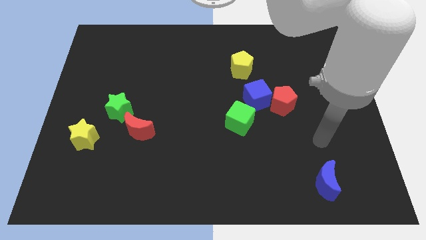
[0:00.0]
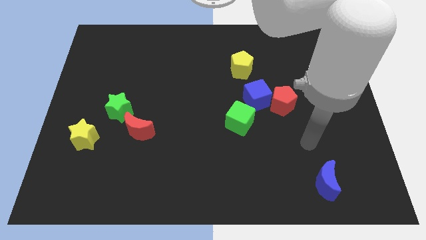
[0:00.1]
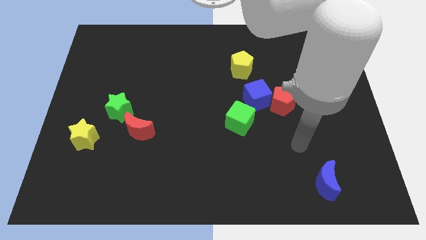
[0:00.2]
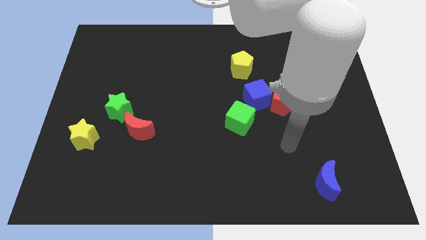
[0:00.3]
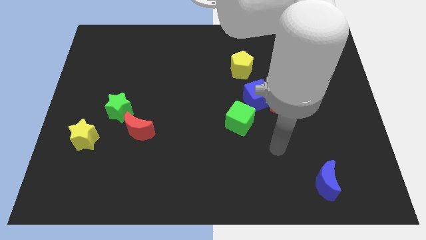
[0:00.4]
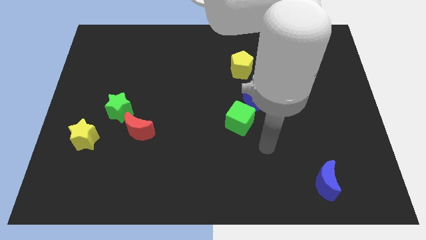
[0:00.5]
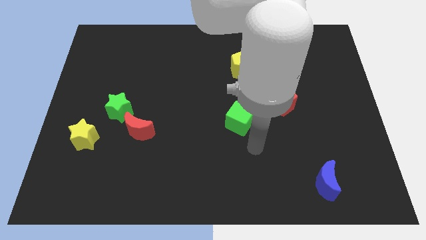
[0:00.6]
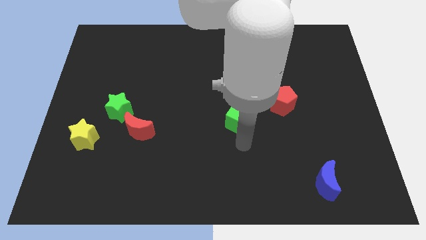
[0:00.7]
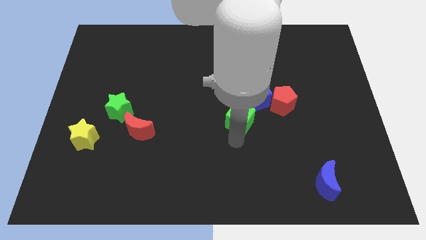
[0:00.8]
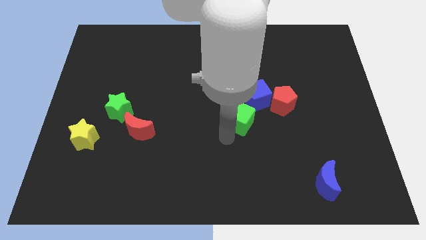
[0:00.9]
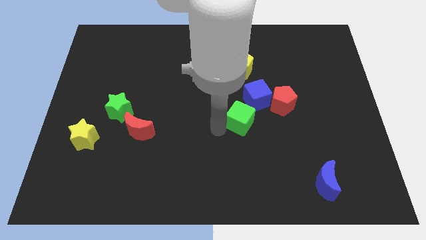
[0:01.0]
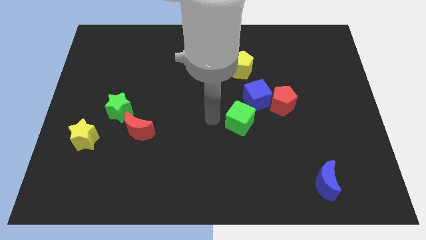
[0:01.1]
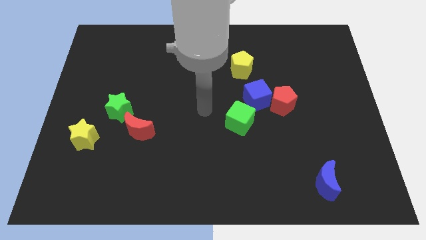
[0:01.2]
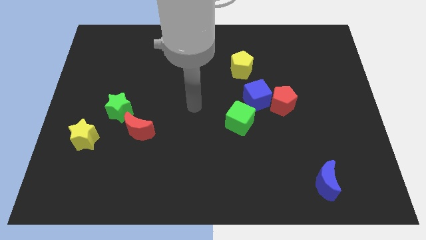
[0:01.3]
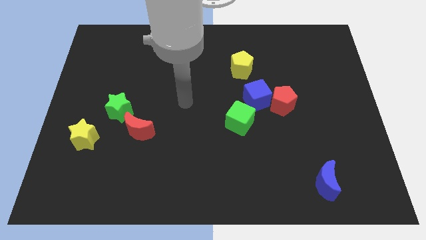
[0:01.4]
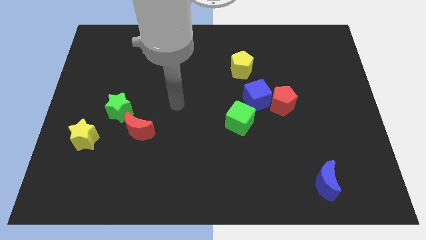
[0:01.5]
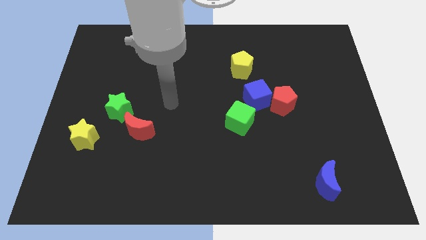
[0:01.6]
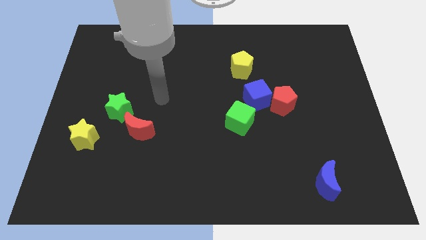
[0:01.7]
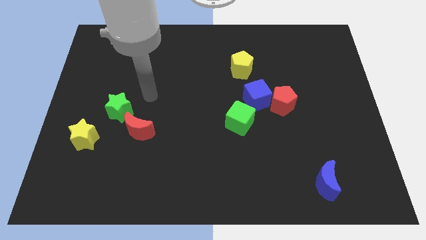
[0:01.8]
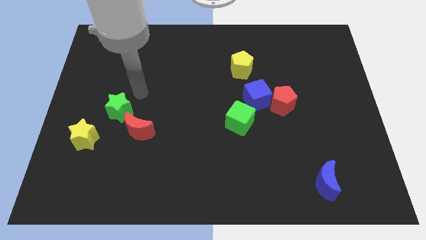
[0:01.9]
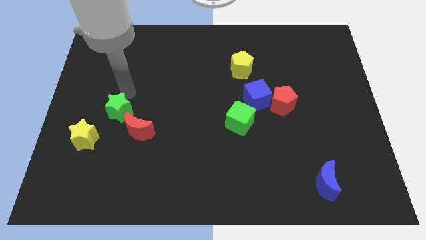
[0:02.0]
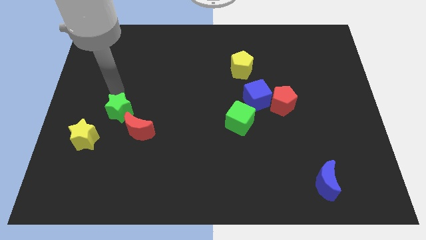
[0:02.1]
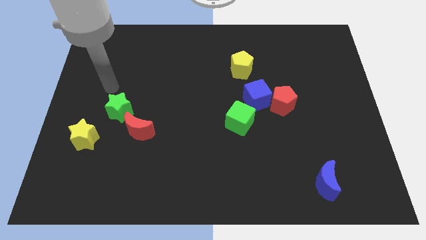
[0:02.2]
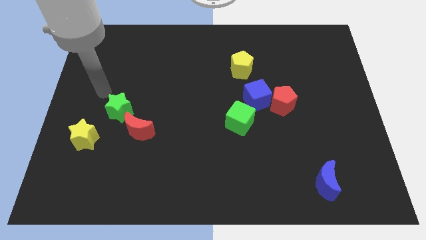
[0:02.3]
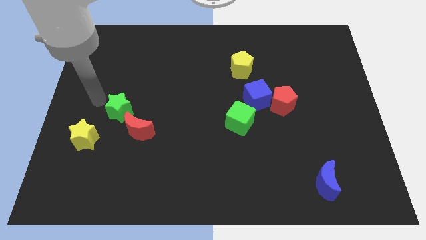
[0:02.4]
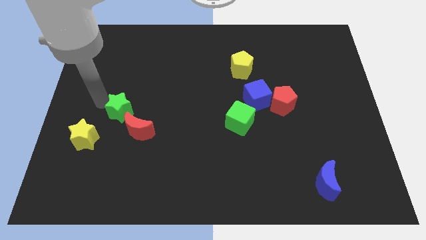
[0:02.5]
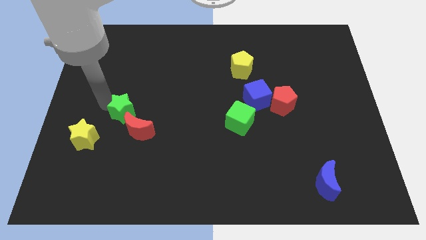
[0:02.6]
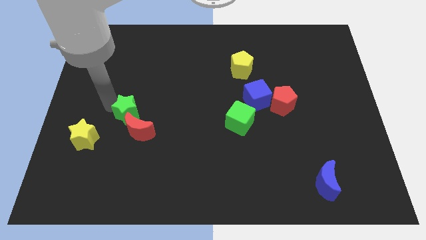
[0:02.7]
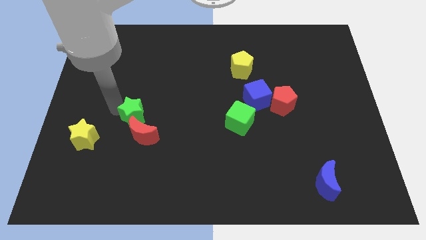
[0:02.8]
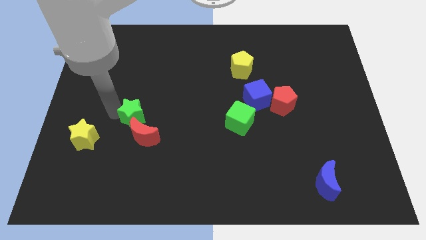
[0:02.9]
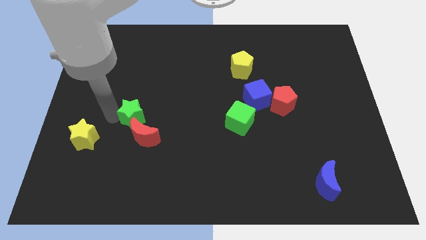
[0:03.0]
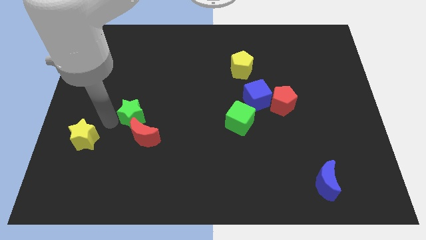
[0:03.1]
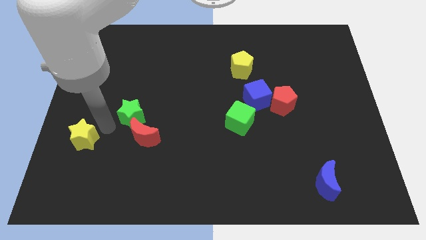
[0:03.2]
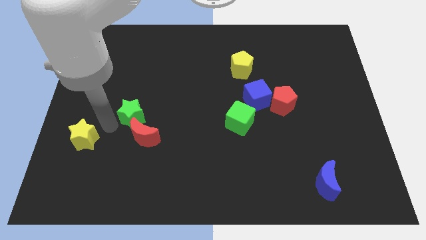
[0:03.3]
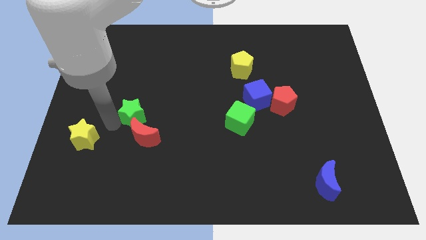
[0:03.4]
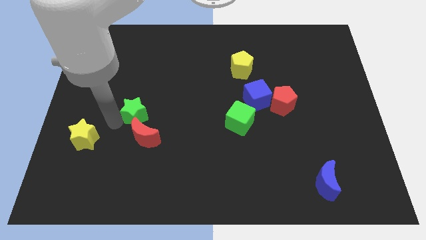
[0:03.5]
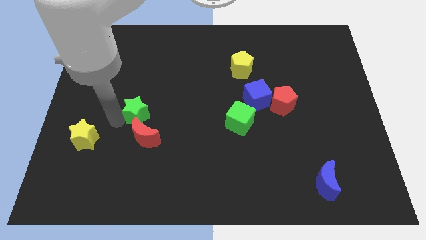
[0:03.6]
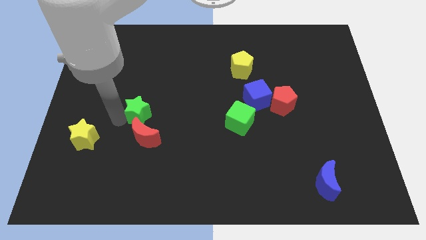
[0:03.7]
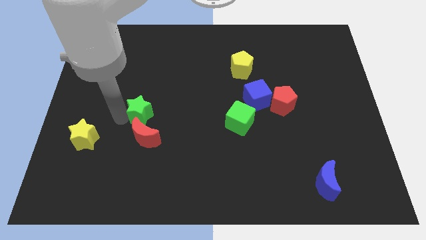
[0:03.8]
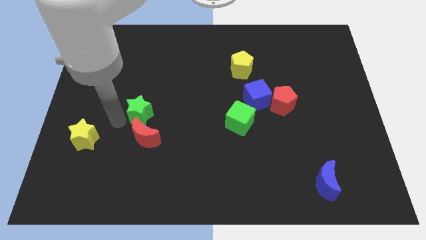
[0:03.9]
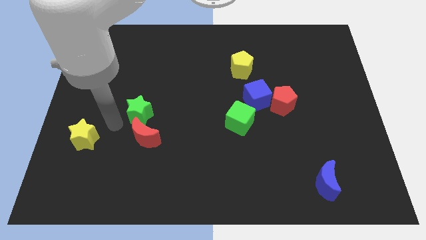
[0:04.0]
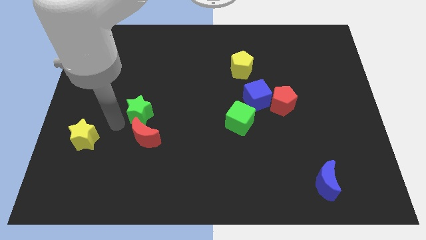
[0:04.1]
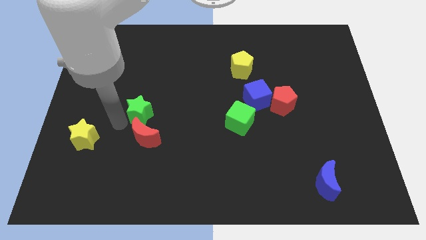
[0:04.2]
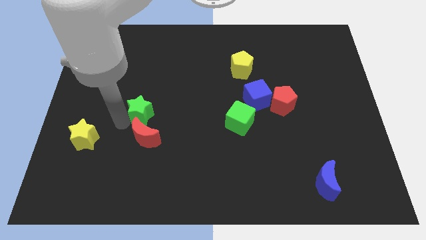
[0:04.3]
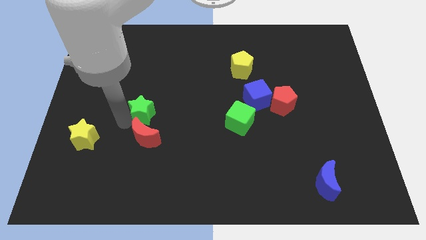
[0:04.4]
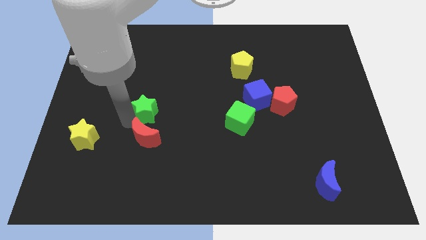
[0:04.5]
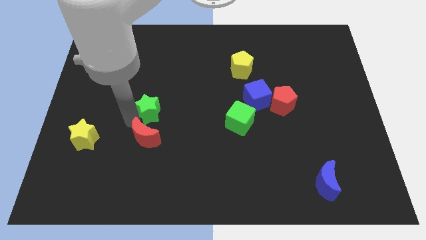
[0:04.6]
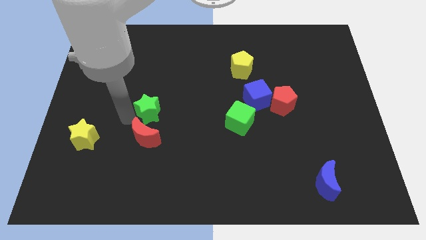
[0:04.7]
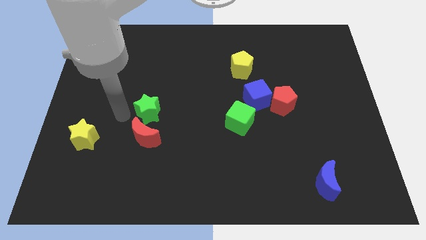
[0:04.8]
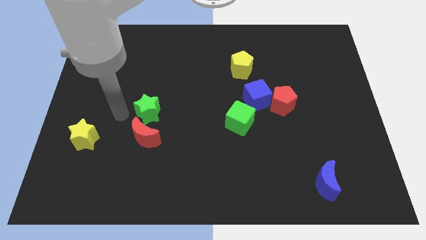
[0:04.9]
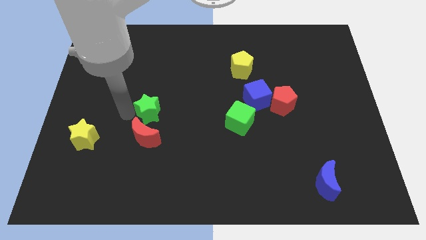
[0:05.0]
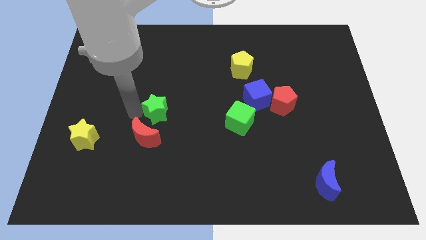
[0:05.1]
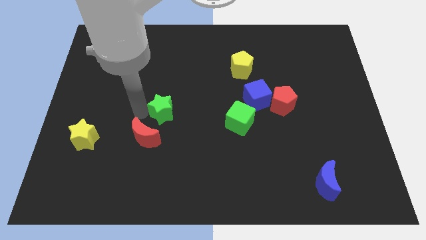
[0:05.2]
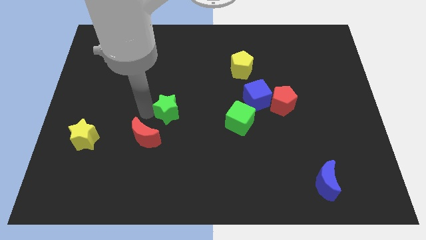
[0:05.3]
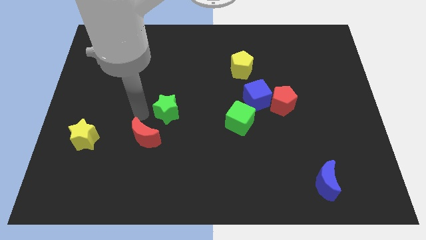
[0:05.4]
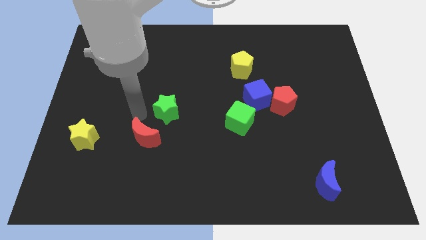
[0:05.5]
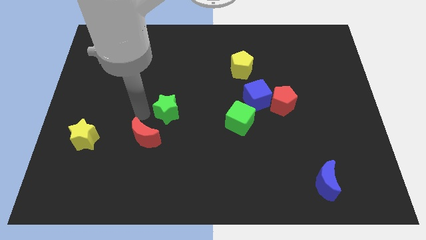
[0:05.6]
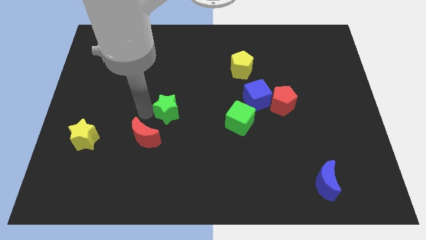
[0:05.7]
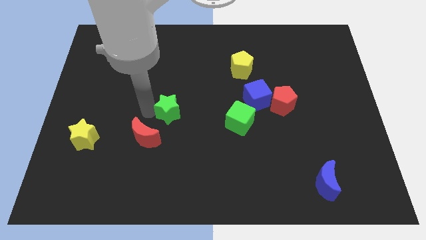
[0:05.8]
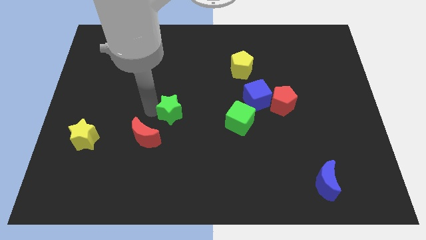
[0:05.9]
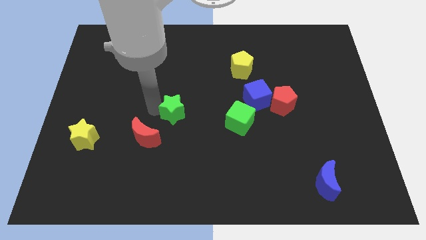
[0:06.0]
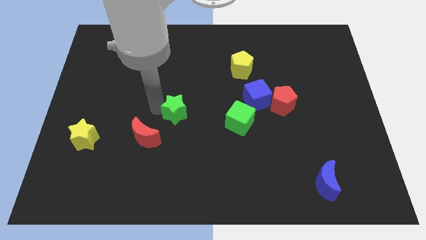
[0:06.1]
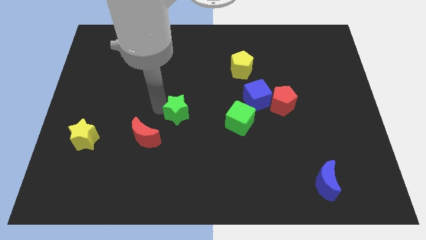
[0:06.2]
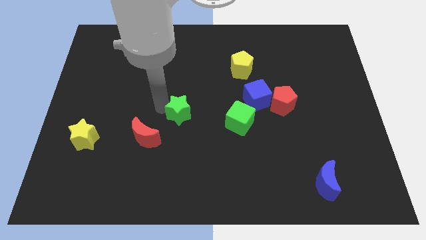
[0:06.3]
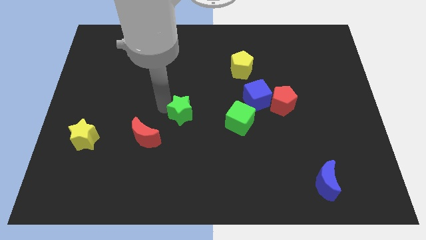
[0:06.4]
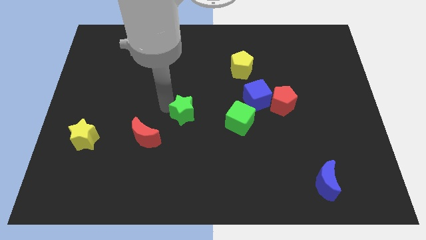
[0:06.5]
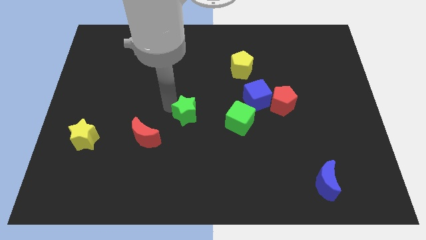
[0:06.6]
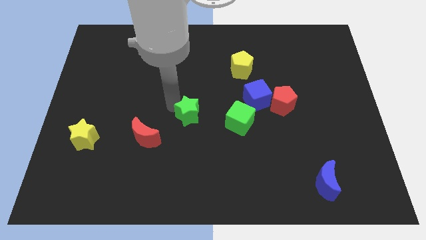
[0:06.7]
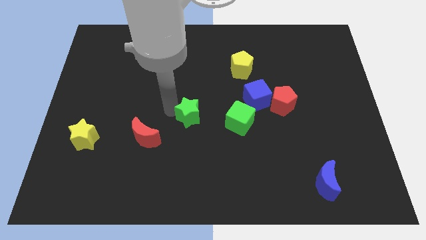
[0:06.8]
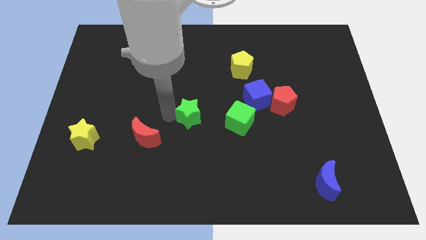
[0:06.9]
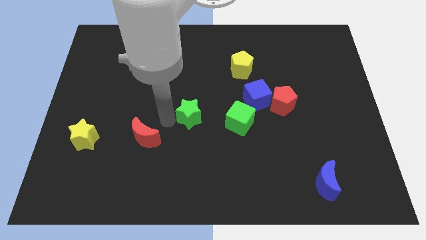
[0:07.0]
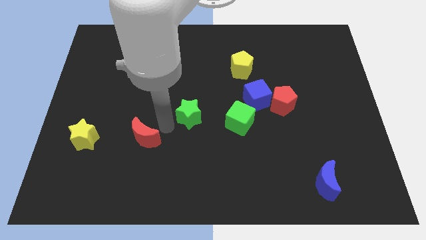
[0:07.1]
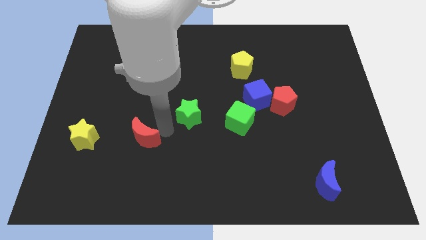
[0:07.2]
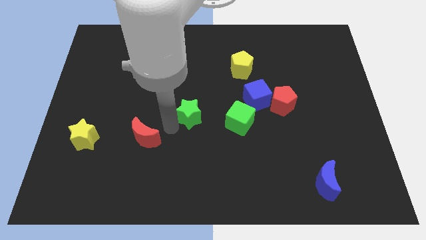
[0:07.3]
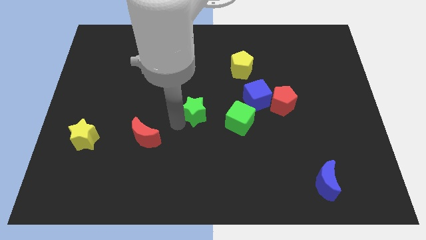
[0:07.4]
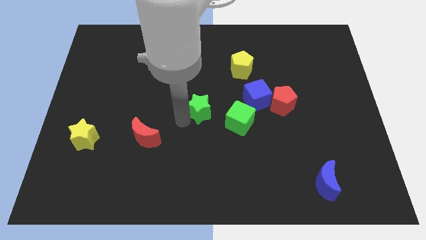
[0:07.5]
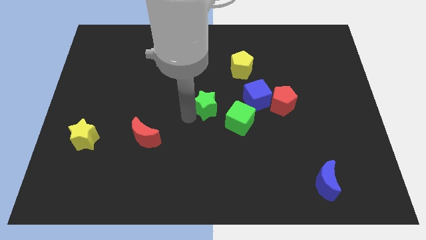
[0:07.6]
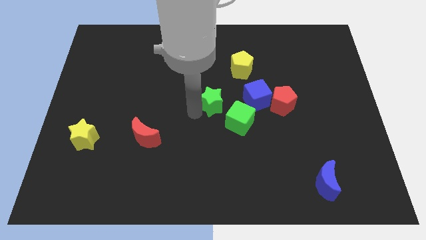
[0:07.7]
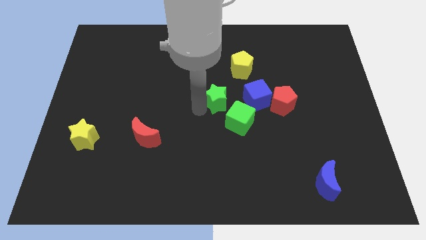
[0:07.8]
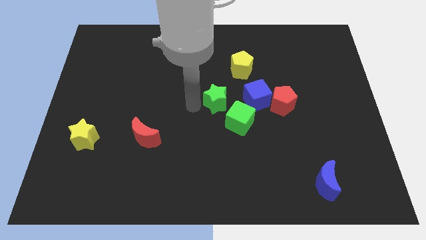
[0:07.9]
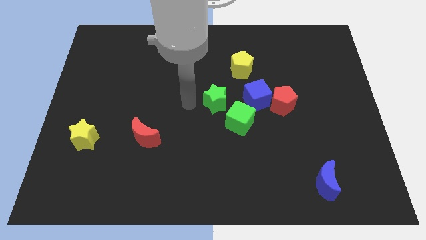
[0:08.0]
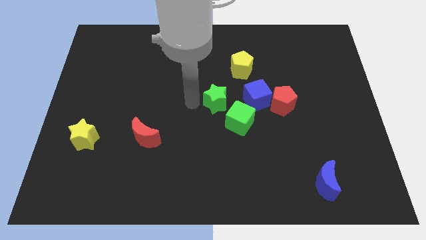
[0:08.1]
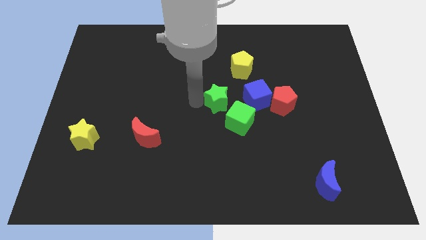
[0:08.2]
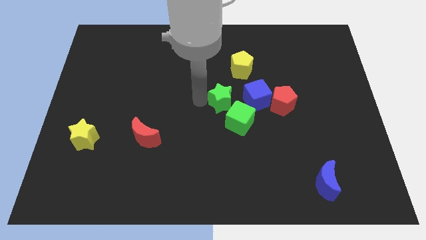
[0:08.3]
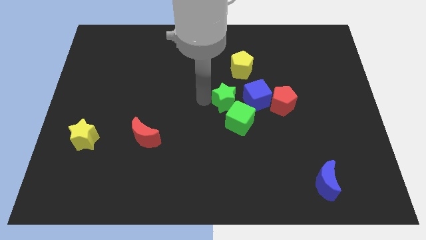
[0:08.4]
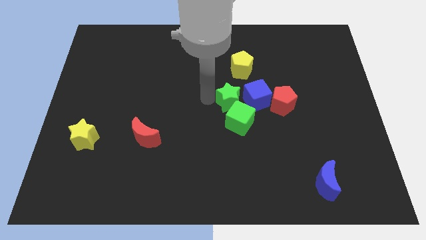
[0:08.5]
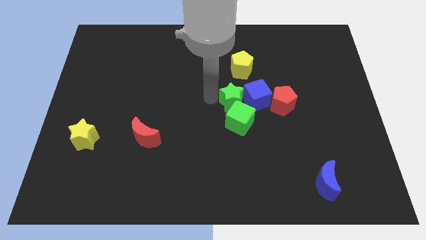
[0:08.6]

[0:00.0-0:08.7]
push the green star next to the blue cube
